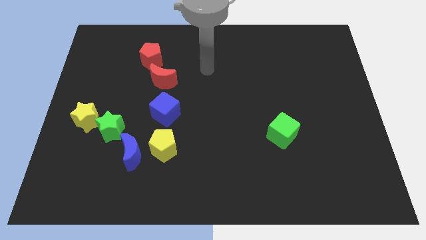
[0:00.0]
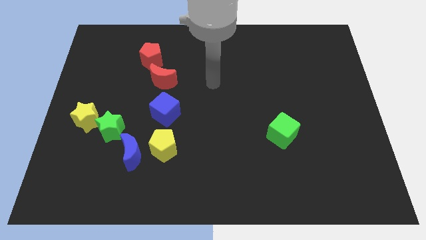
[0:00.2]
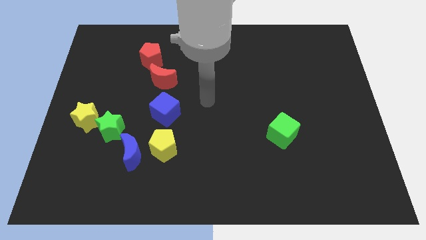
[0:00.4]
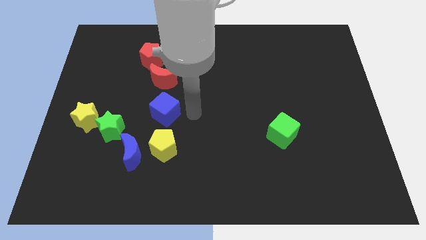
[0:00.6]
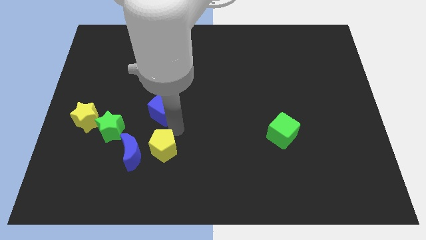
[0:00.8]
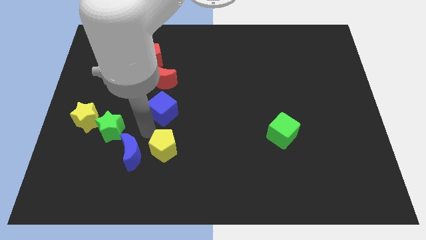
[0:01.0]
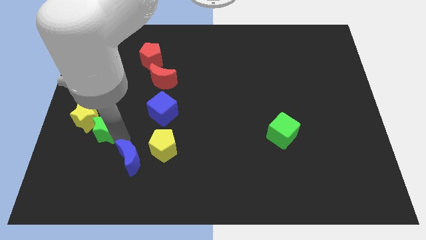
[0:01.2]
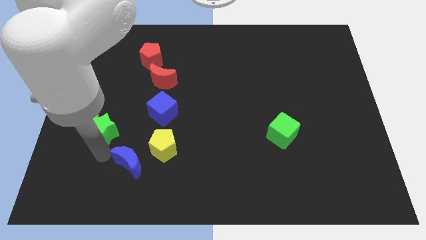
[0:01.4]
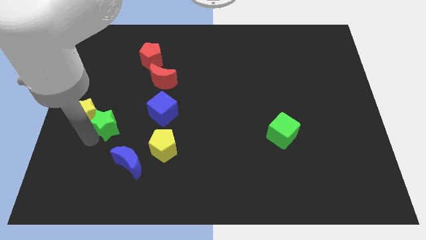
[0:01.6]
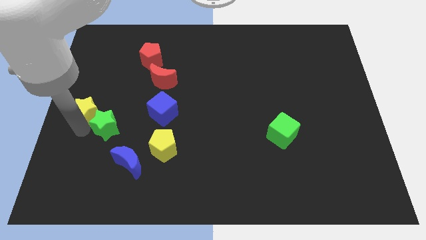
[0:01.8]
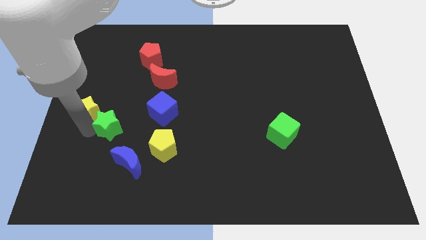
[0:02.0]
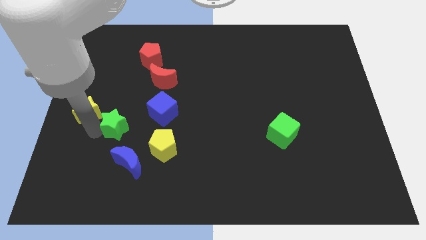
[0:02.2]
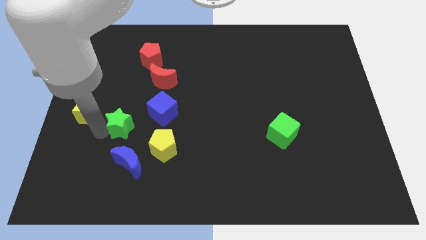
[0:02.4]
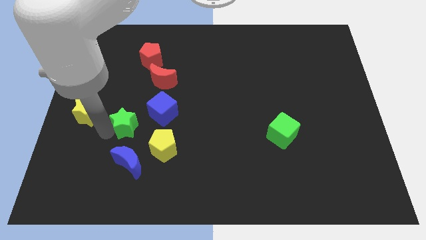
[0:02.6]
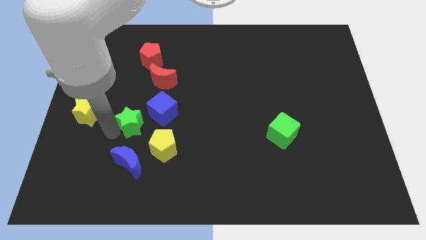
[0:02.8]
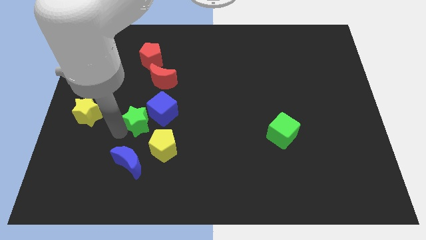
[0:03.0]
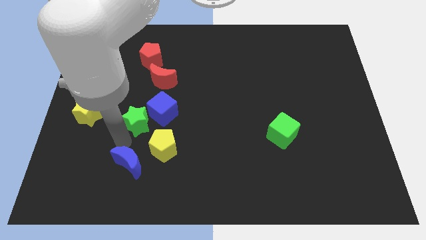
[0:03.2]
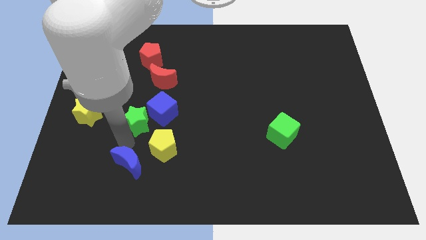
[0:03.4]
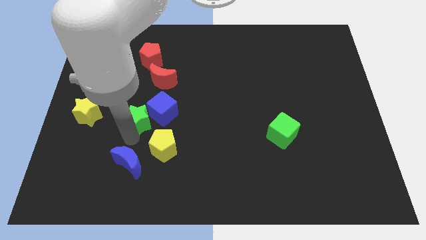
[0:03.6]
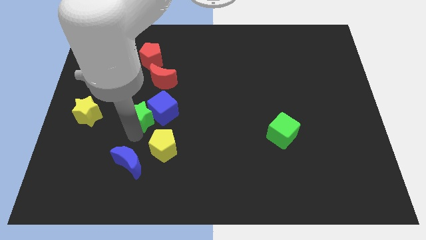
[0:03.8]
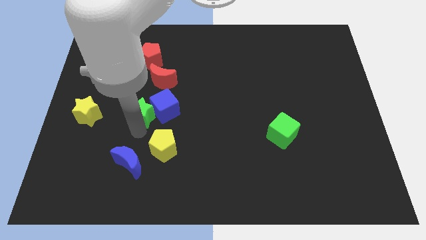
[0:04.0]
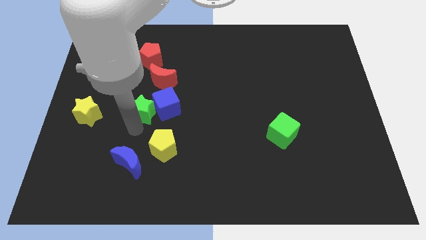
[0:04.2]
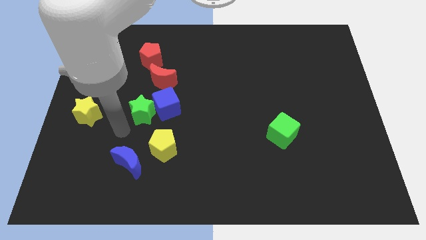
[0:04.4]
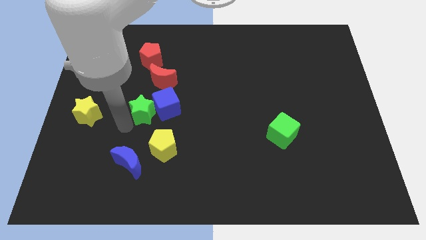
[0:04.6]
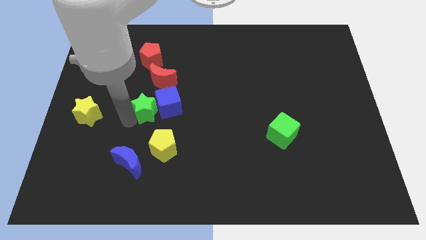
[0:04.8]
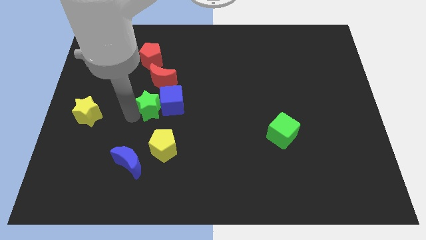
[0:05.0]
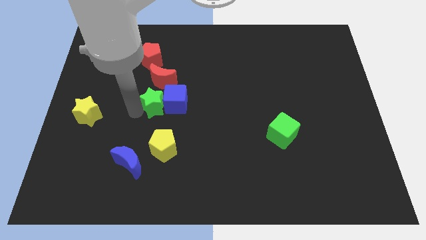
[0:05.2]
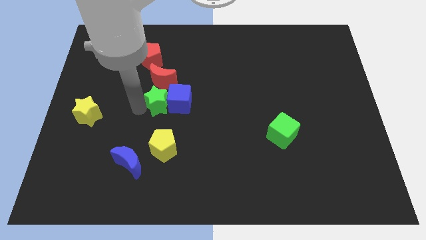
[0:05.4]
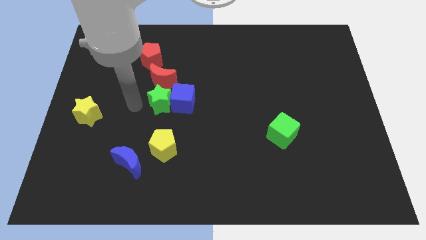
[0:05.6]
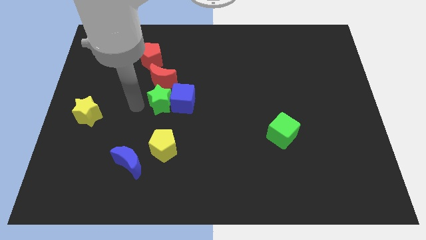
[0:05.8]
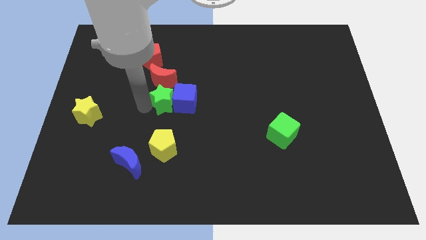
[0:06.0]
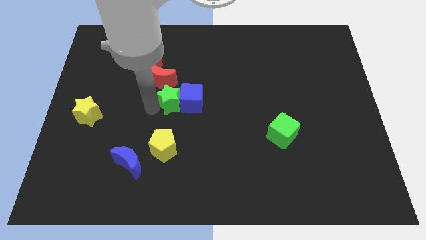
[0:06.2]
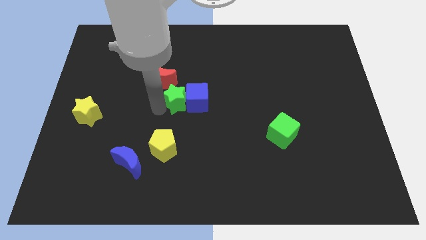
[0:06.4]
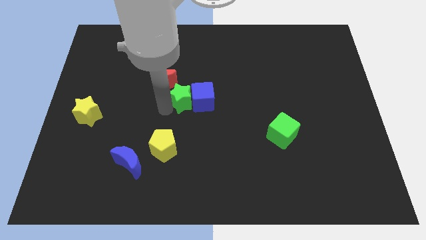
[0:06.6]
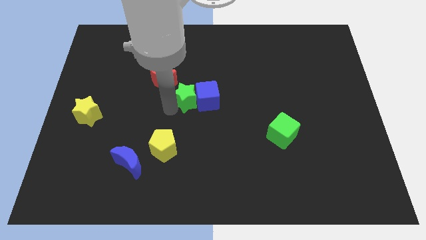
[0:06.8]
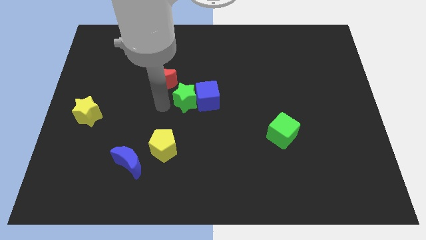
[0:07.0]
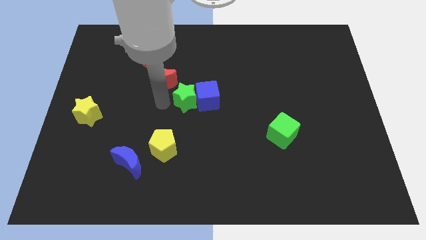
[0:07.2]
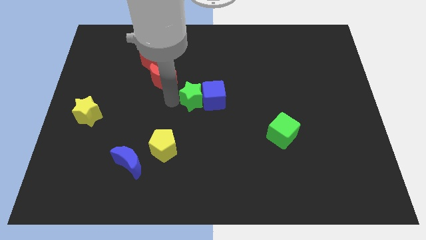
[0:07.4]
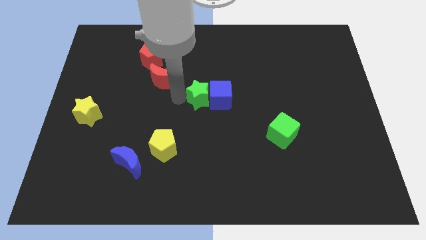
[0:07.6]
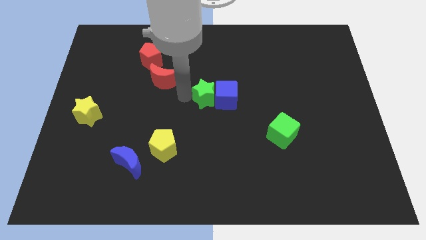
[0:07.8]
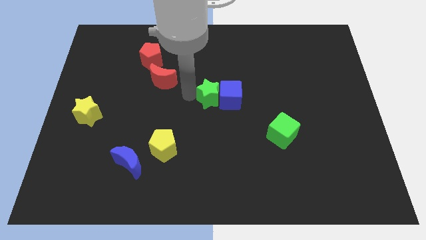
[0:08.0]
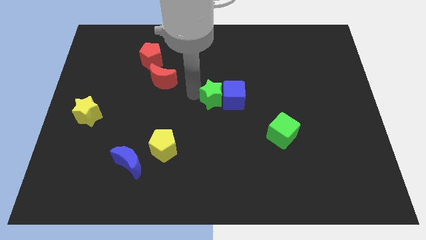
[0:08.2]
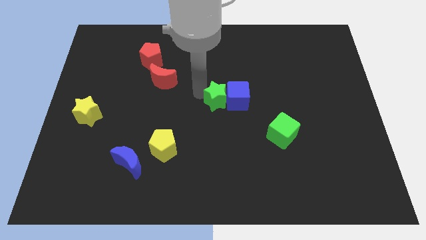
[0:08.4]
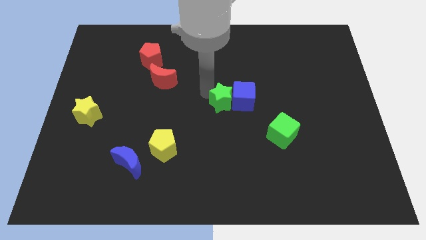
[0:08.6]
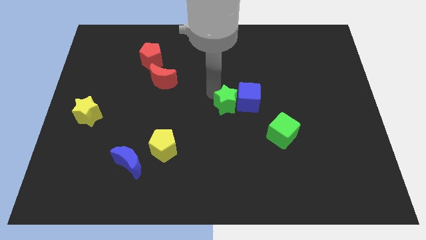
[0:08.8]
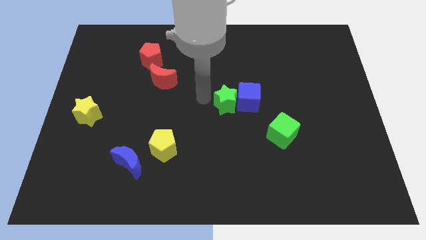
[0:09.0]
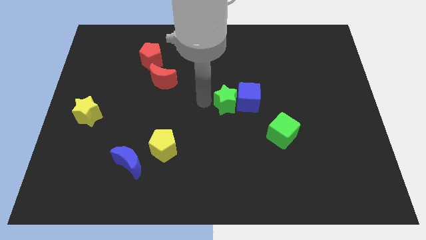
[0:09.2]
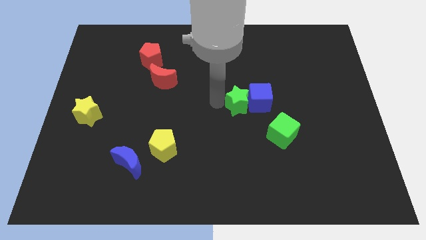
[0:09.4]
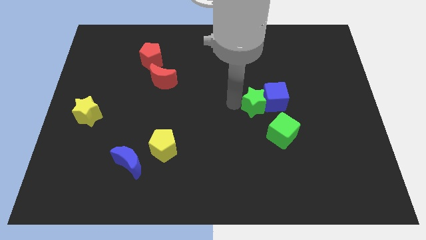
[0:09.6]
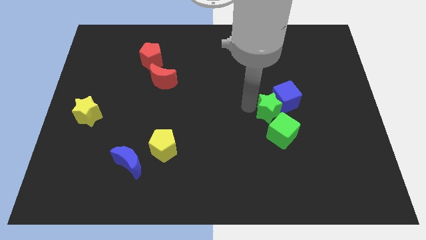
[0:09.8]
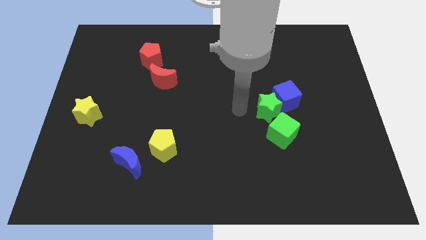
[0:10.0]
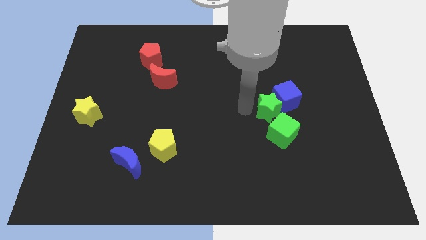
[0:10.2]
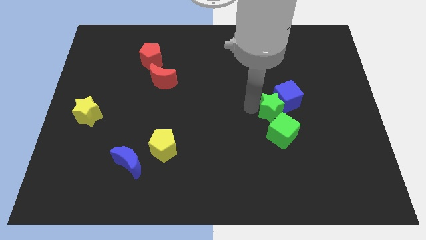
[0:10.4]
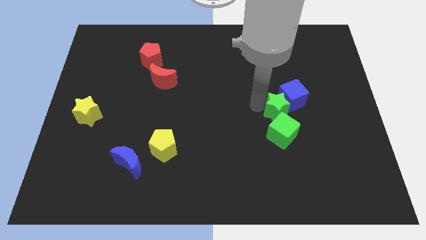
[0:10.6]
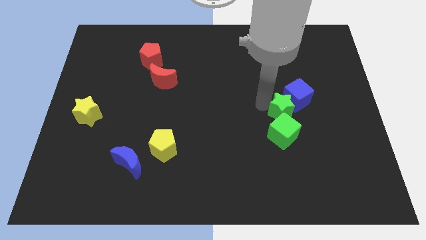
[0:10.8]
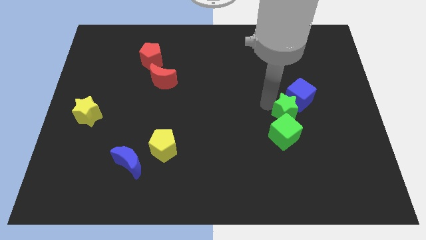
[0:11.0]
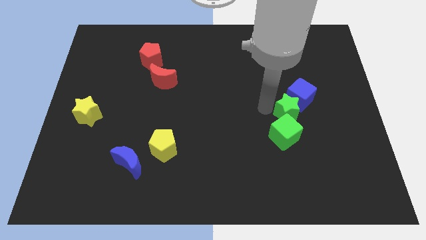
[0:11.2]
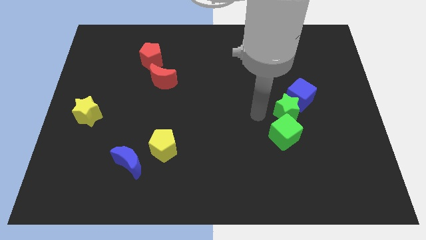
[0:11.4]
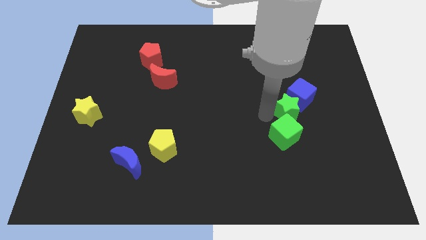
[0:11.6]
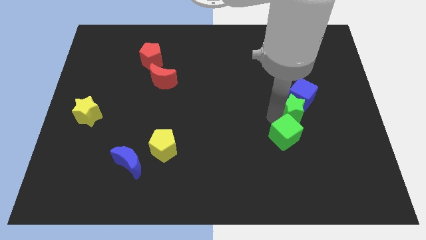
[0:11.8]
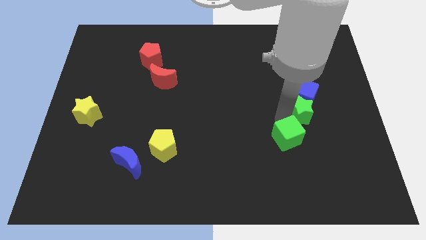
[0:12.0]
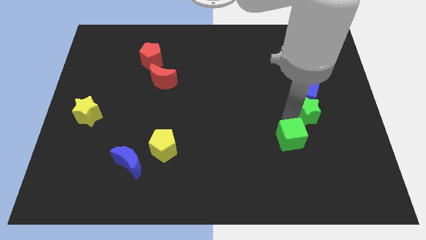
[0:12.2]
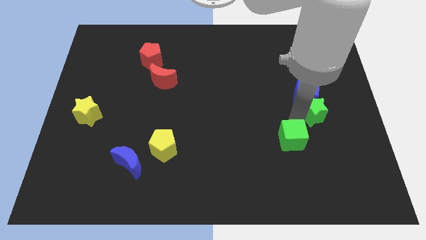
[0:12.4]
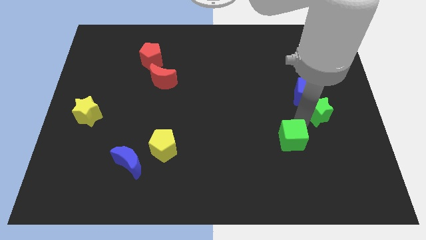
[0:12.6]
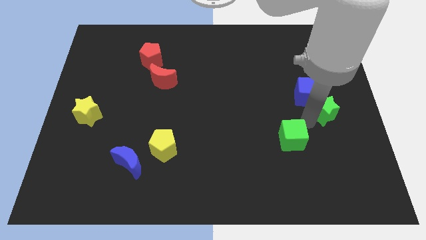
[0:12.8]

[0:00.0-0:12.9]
put the green star to the right side

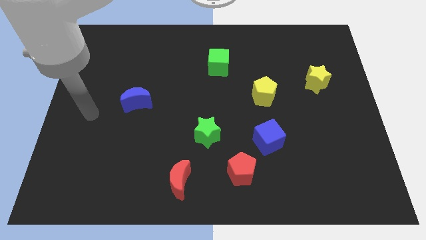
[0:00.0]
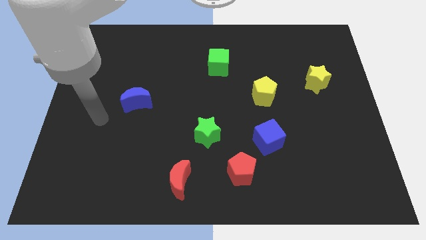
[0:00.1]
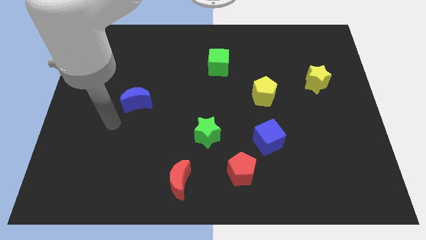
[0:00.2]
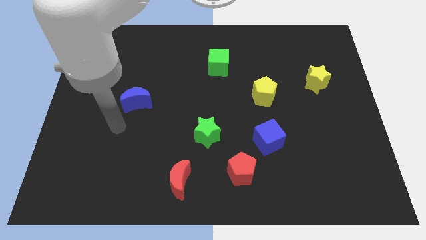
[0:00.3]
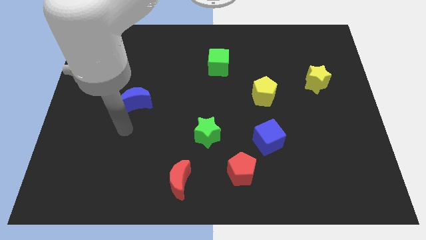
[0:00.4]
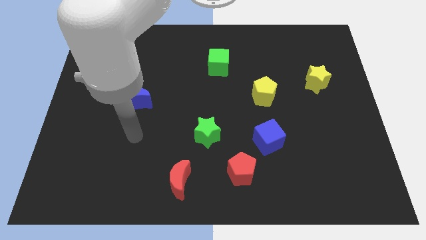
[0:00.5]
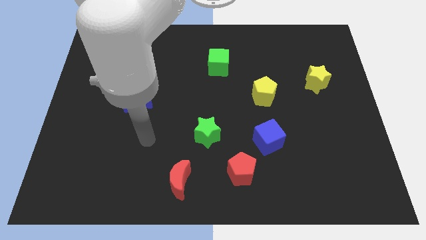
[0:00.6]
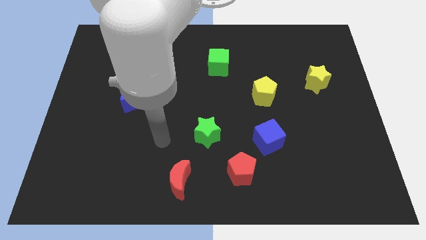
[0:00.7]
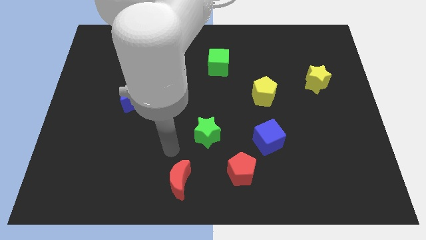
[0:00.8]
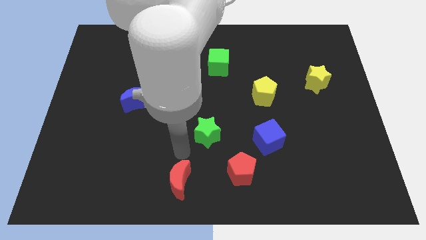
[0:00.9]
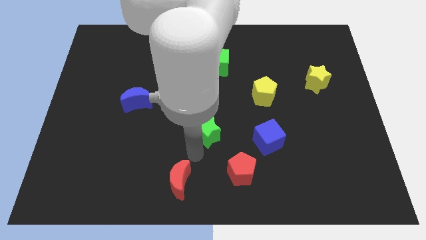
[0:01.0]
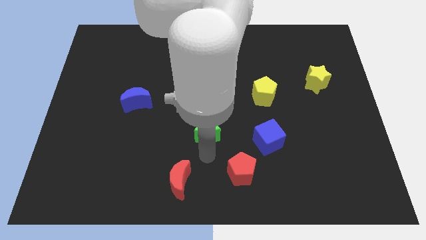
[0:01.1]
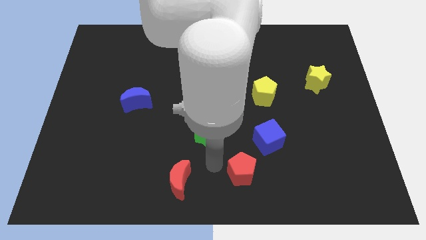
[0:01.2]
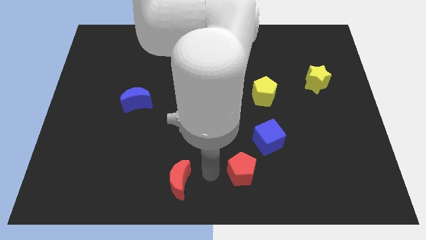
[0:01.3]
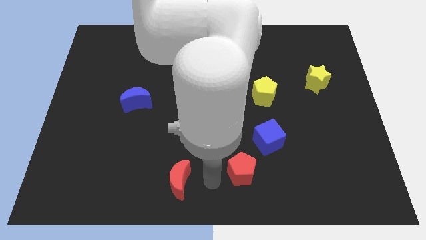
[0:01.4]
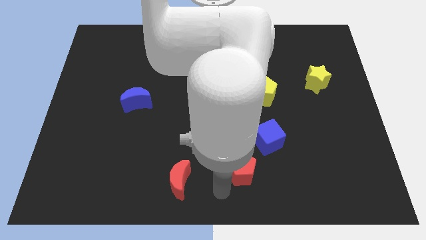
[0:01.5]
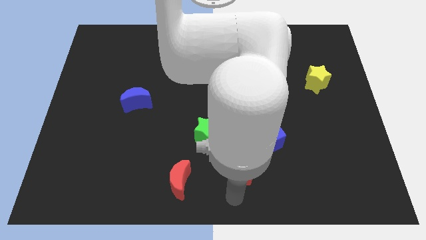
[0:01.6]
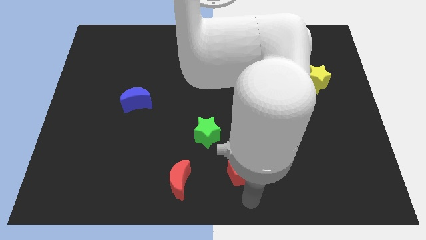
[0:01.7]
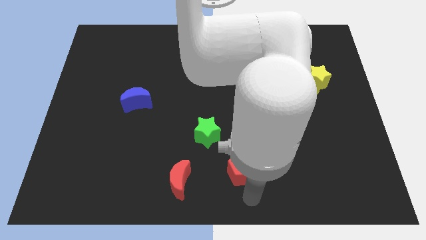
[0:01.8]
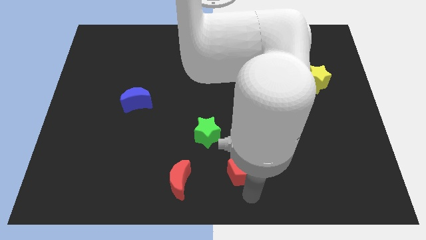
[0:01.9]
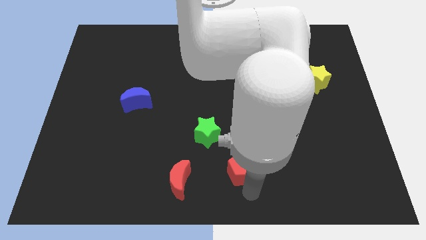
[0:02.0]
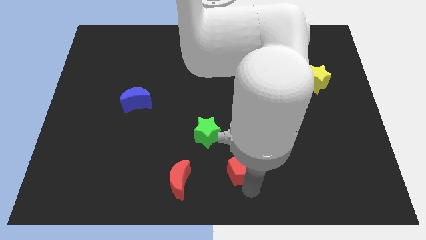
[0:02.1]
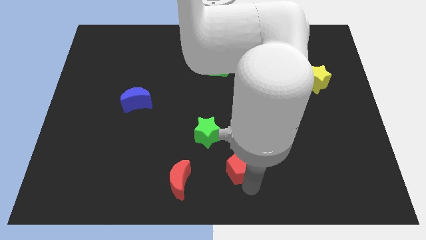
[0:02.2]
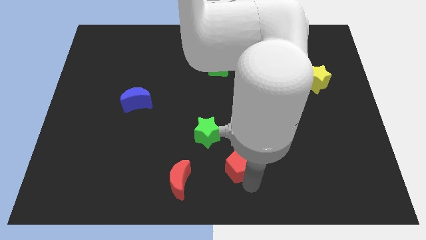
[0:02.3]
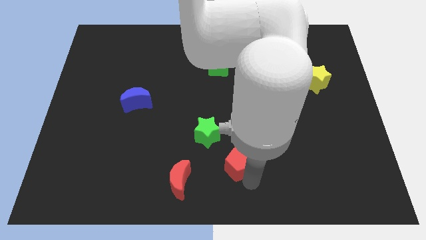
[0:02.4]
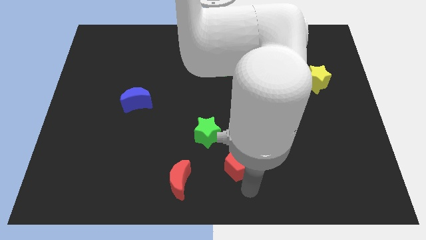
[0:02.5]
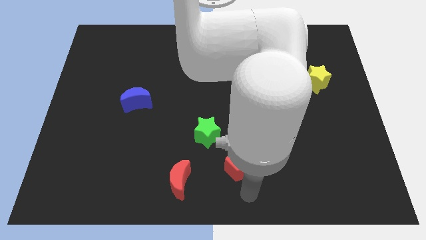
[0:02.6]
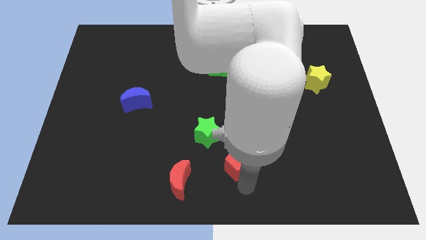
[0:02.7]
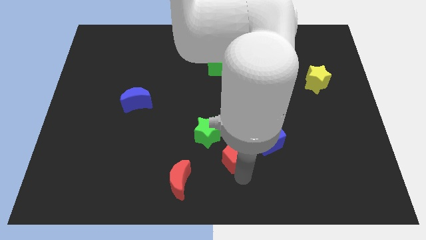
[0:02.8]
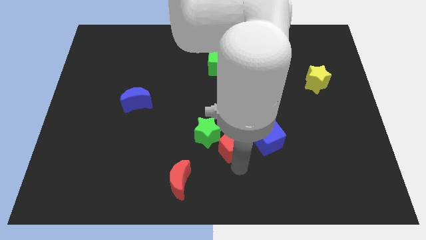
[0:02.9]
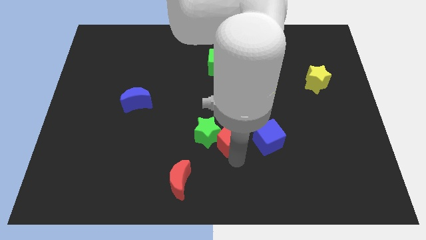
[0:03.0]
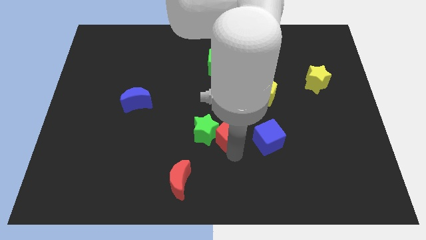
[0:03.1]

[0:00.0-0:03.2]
move the red pentagon to the center of the board
